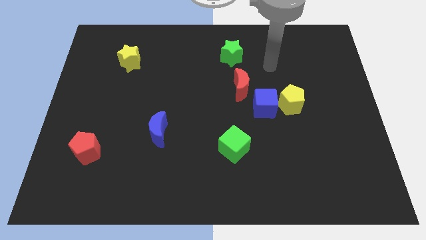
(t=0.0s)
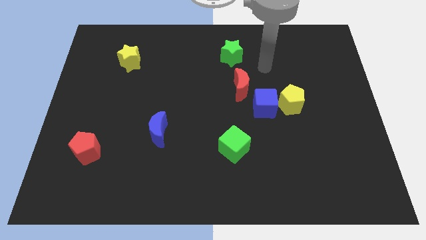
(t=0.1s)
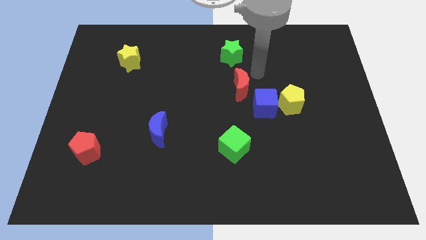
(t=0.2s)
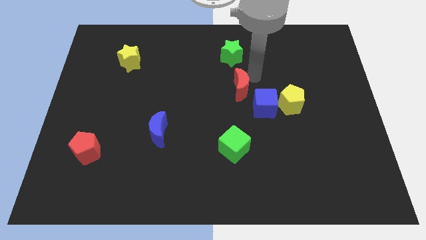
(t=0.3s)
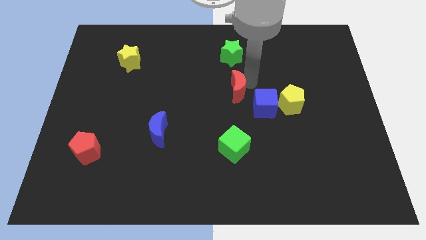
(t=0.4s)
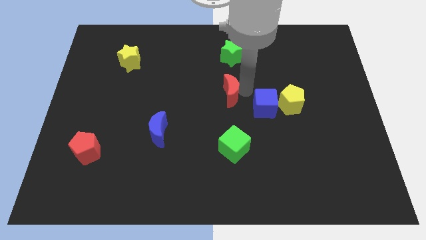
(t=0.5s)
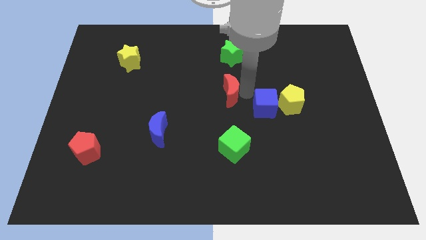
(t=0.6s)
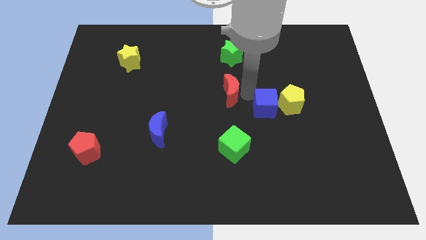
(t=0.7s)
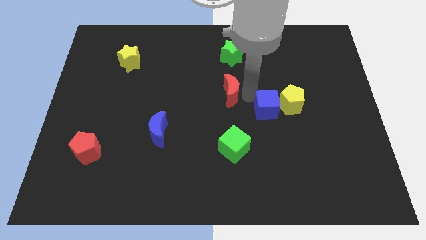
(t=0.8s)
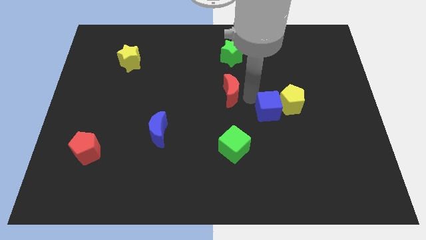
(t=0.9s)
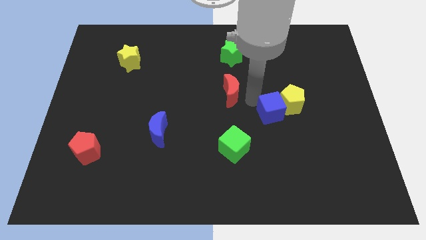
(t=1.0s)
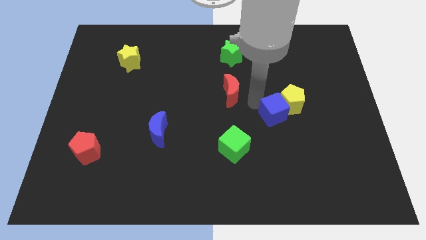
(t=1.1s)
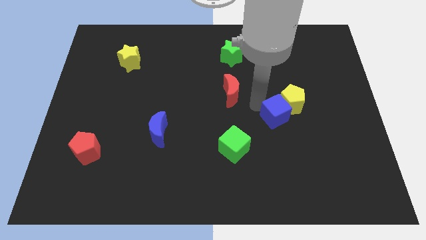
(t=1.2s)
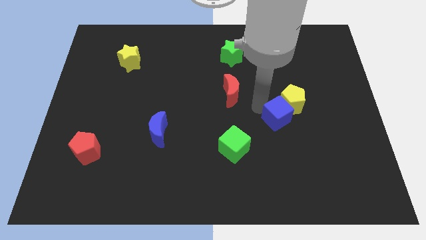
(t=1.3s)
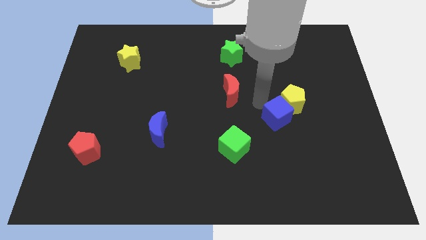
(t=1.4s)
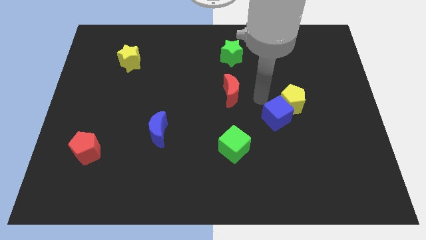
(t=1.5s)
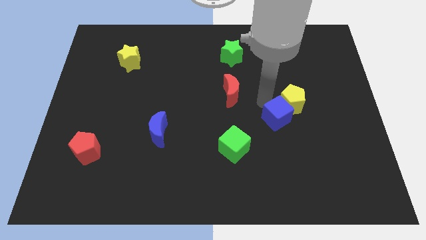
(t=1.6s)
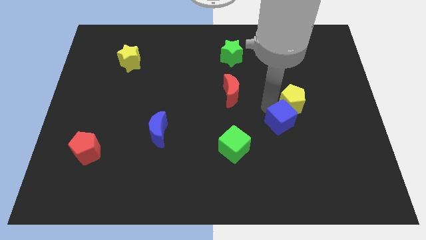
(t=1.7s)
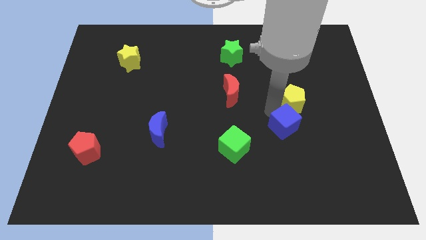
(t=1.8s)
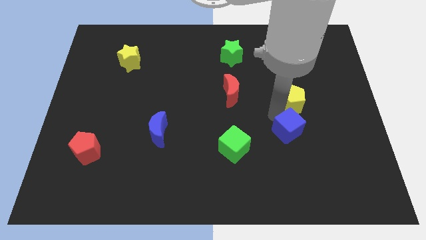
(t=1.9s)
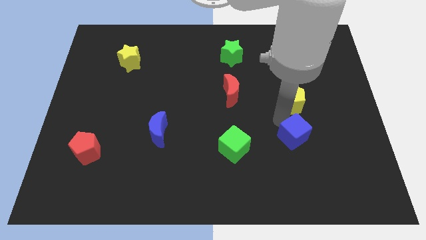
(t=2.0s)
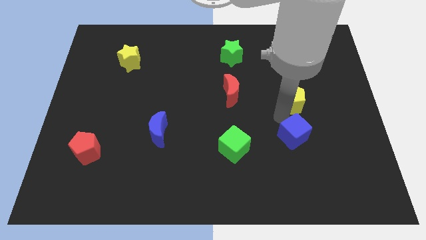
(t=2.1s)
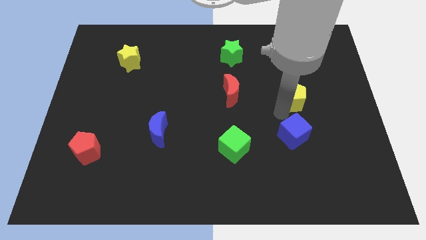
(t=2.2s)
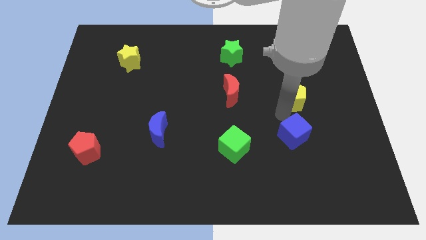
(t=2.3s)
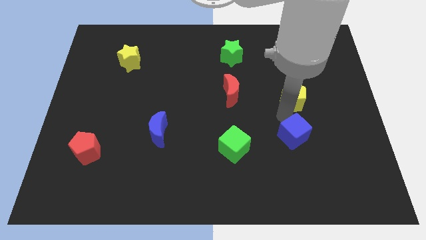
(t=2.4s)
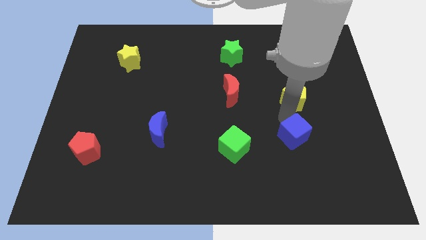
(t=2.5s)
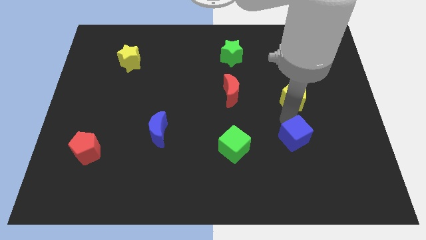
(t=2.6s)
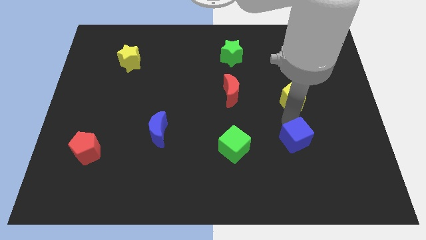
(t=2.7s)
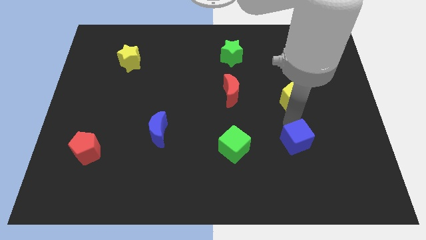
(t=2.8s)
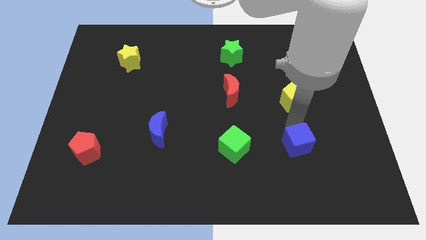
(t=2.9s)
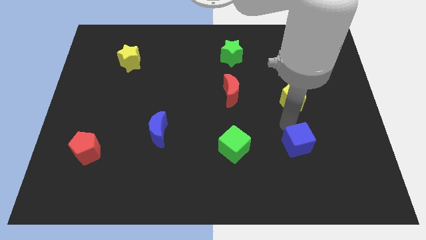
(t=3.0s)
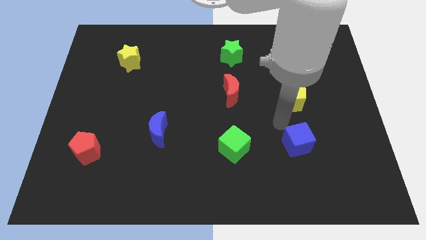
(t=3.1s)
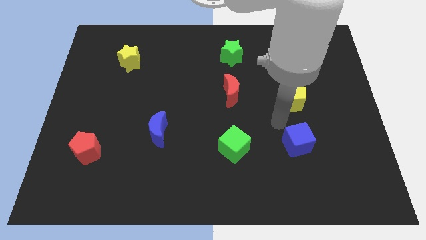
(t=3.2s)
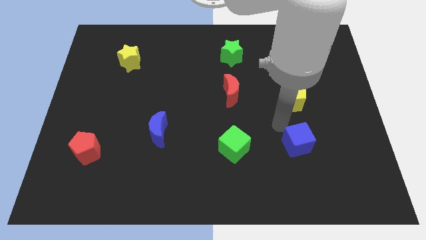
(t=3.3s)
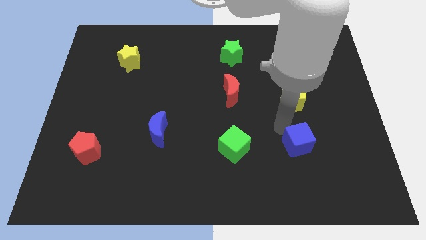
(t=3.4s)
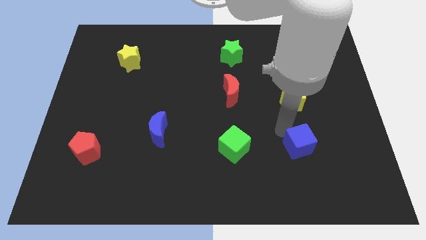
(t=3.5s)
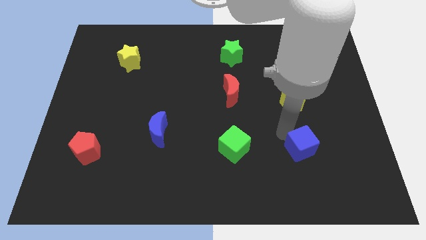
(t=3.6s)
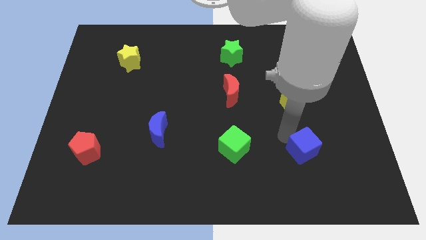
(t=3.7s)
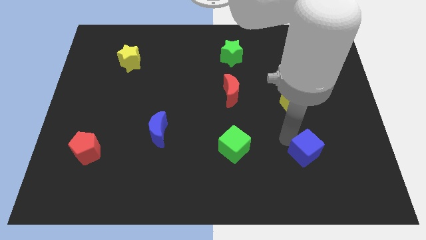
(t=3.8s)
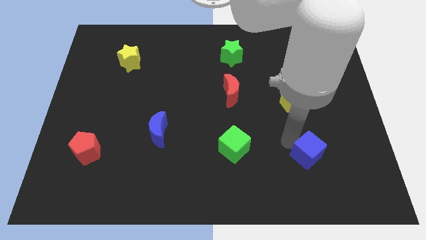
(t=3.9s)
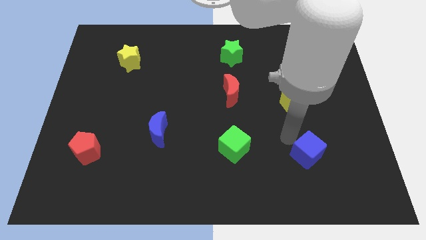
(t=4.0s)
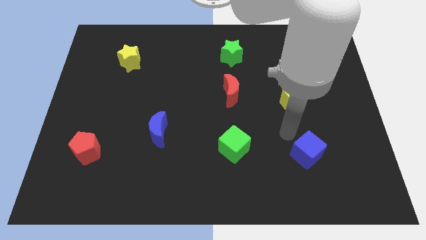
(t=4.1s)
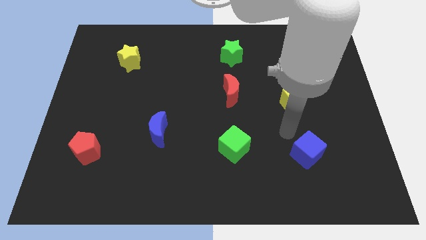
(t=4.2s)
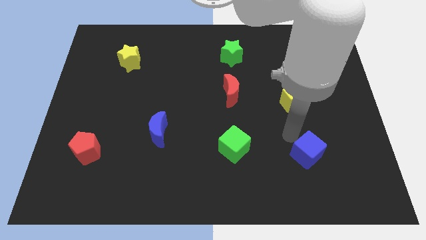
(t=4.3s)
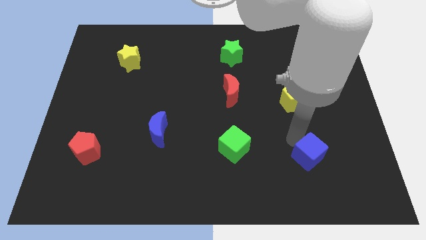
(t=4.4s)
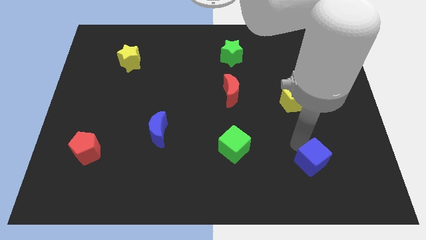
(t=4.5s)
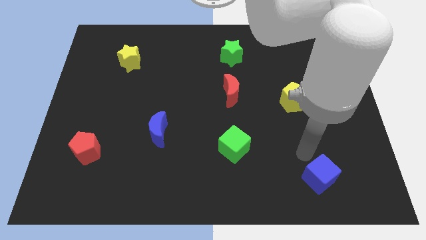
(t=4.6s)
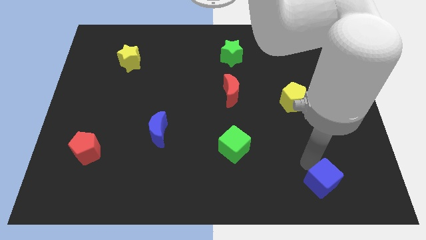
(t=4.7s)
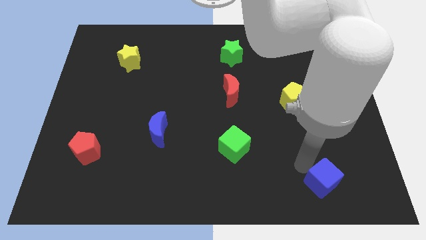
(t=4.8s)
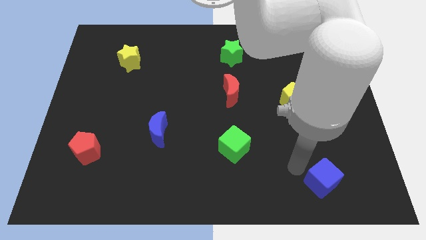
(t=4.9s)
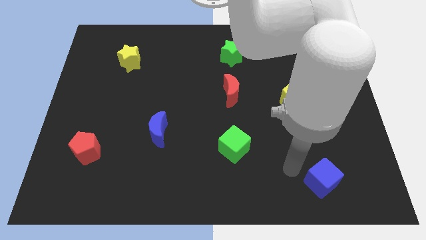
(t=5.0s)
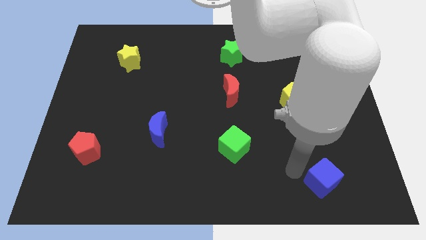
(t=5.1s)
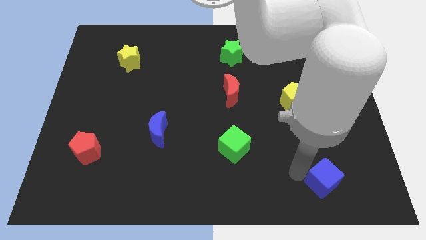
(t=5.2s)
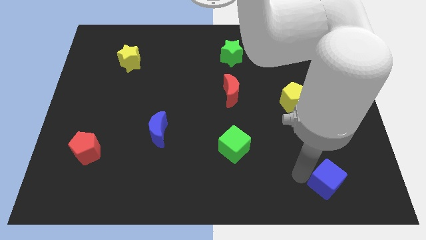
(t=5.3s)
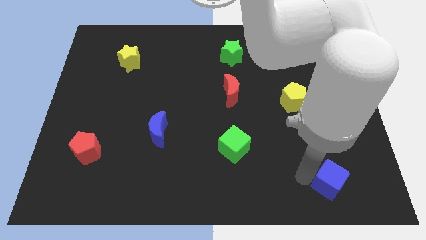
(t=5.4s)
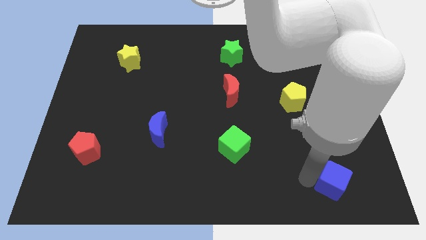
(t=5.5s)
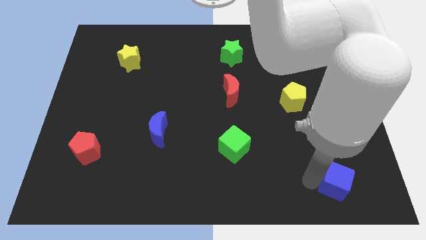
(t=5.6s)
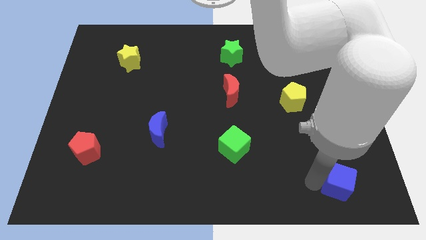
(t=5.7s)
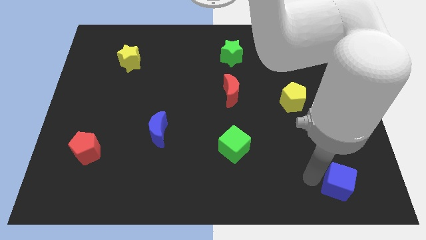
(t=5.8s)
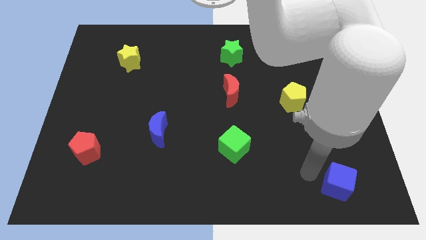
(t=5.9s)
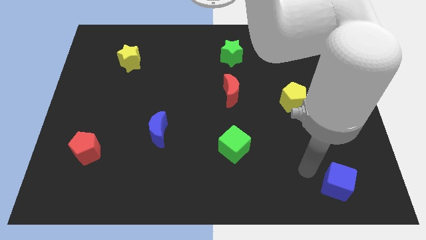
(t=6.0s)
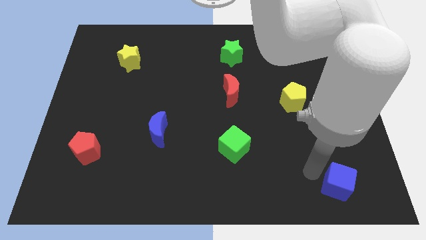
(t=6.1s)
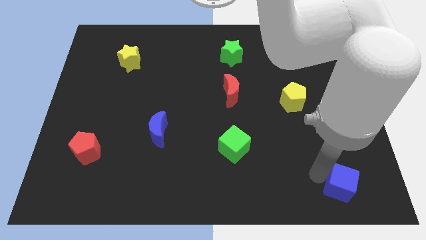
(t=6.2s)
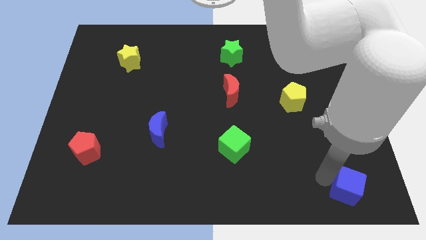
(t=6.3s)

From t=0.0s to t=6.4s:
put the blue cube to the bottom right corner
